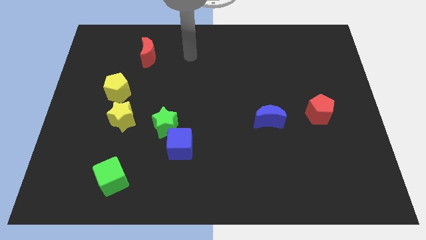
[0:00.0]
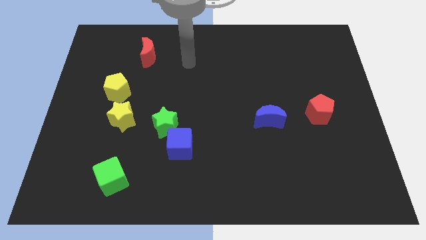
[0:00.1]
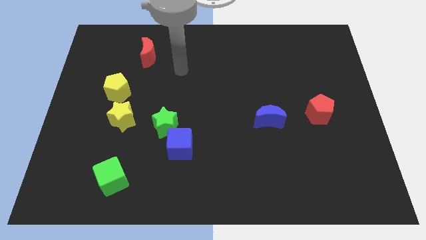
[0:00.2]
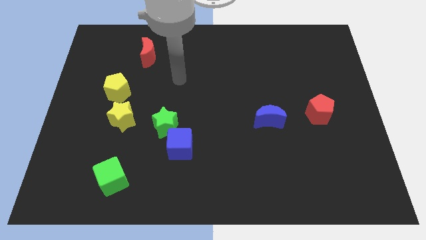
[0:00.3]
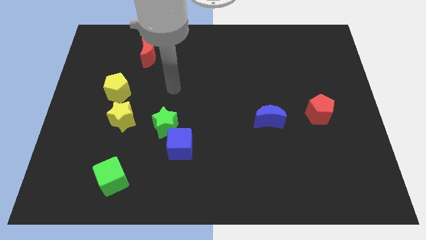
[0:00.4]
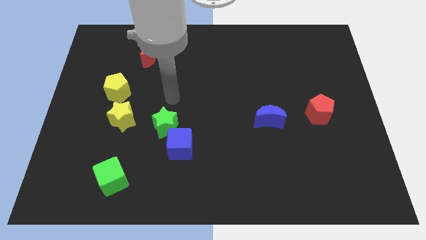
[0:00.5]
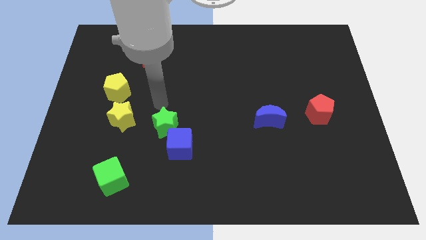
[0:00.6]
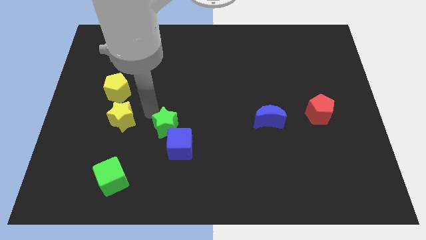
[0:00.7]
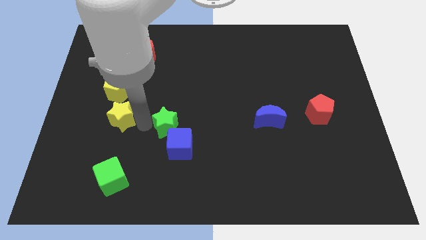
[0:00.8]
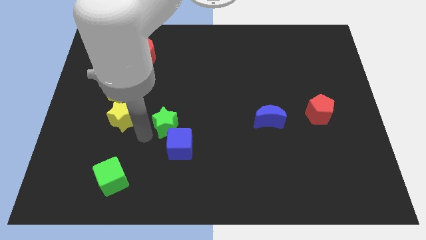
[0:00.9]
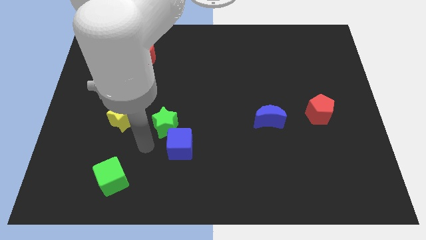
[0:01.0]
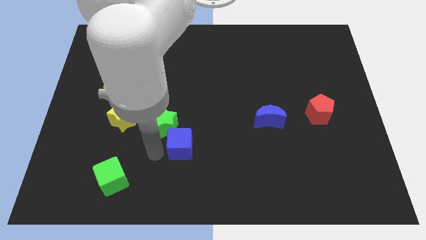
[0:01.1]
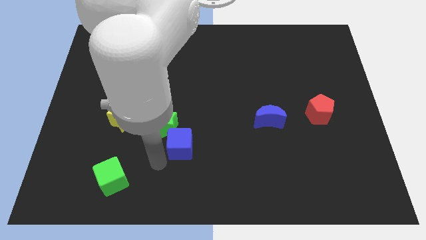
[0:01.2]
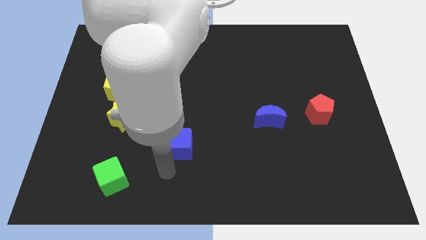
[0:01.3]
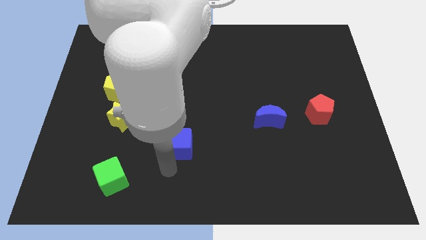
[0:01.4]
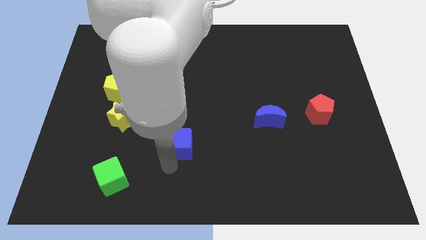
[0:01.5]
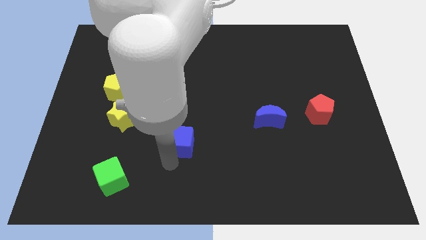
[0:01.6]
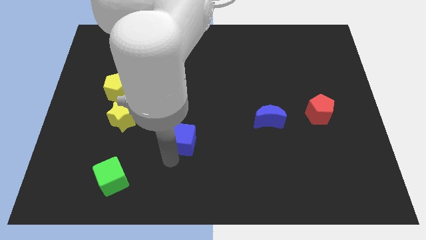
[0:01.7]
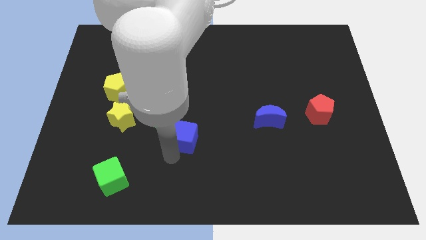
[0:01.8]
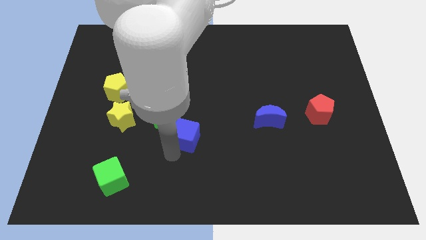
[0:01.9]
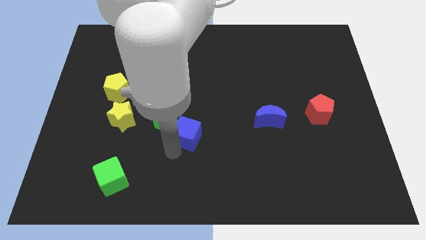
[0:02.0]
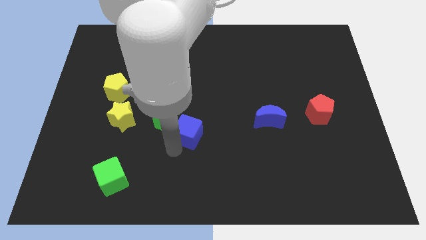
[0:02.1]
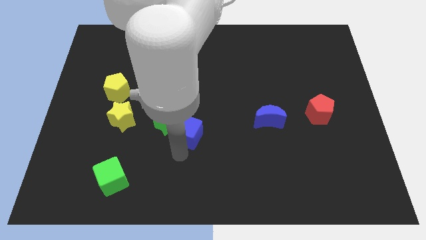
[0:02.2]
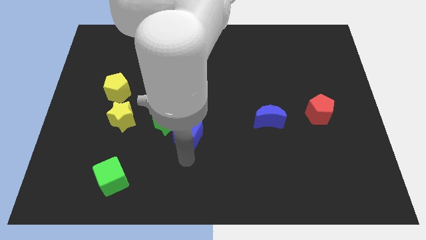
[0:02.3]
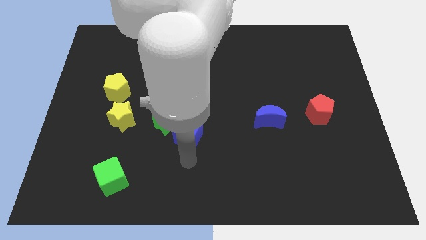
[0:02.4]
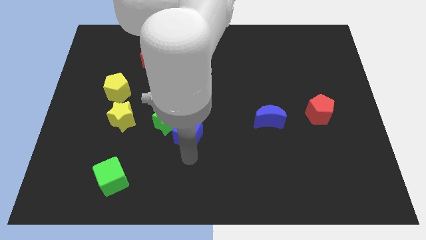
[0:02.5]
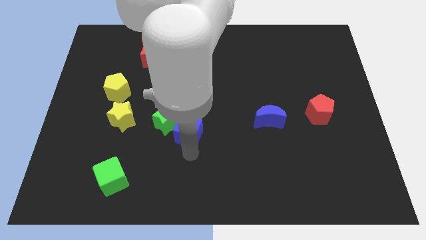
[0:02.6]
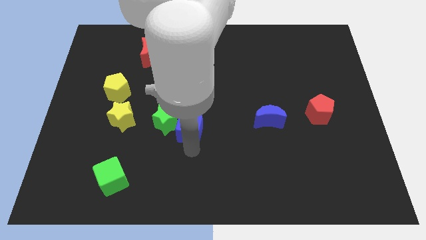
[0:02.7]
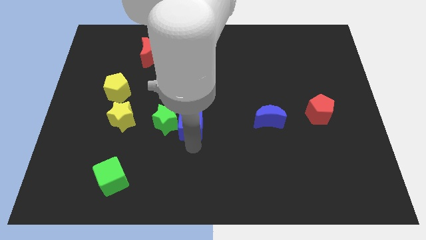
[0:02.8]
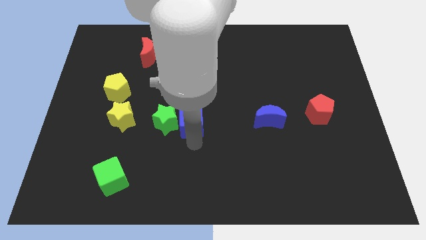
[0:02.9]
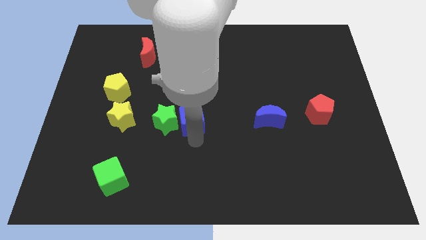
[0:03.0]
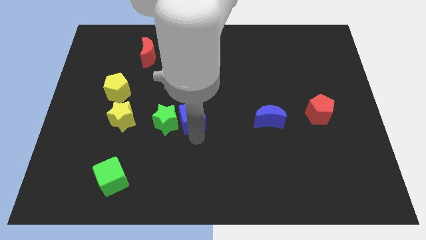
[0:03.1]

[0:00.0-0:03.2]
slightly push the blue cube up

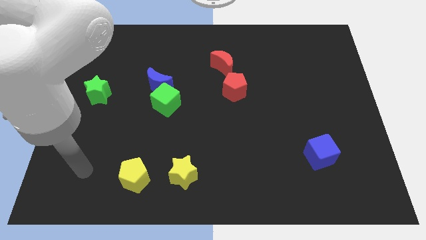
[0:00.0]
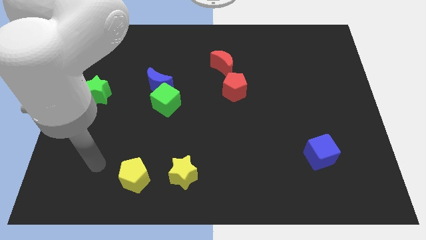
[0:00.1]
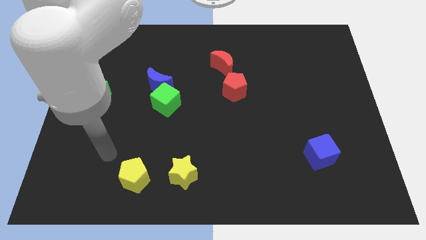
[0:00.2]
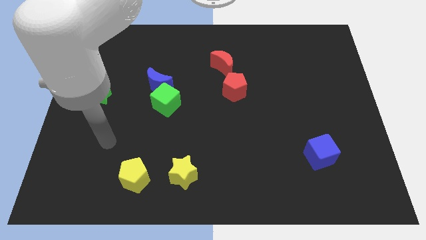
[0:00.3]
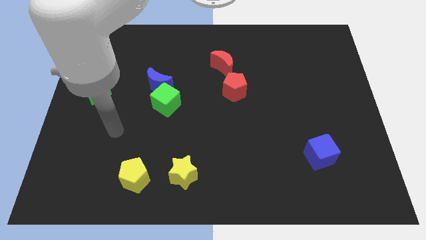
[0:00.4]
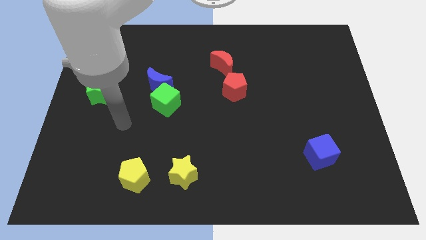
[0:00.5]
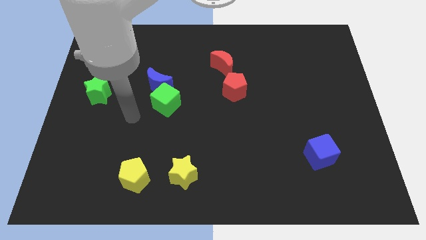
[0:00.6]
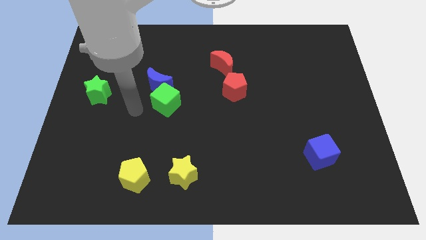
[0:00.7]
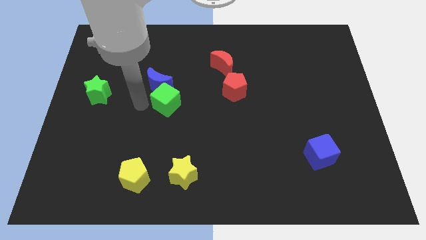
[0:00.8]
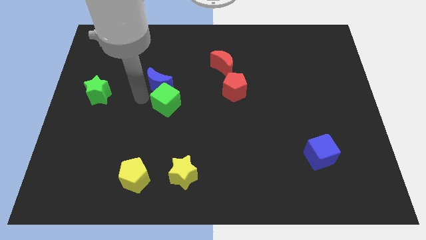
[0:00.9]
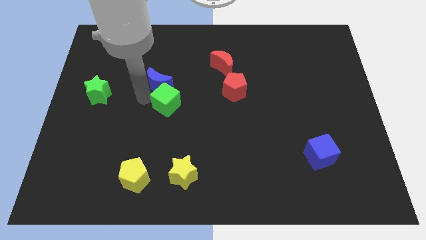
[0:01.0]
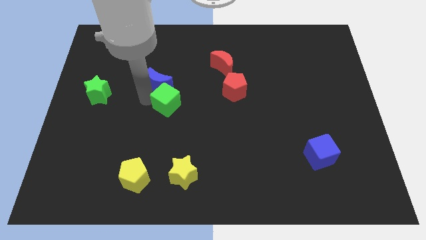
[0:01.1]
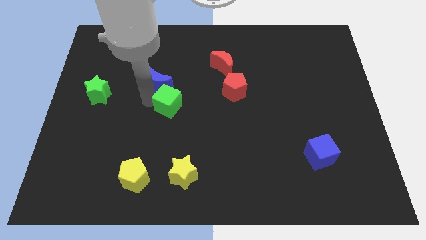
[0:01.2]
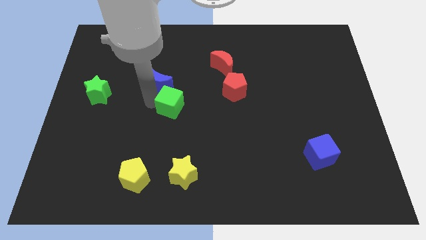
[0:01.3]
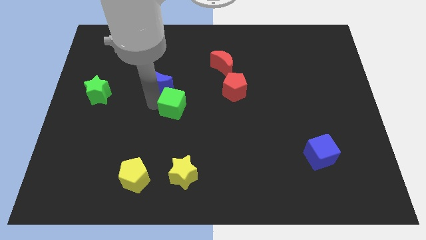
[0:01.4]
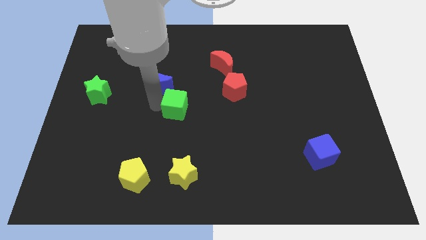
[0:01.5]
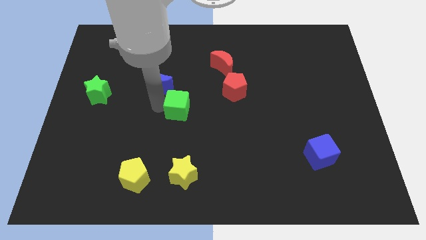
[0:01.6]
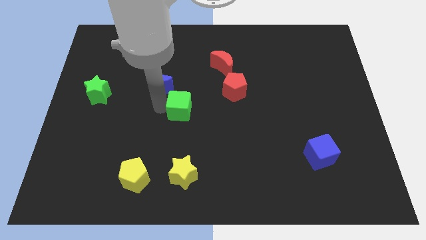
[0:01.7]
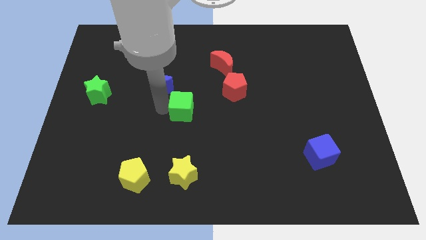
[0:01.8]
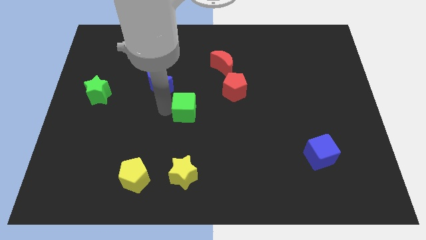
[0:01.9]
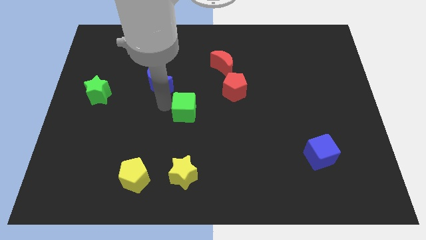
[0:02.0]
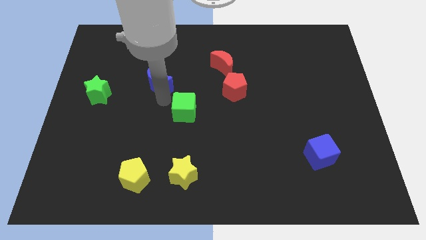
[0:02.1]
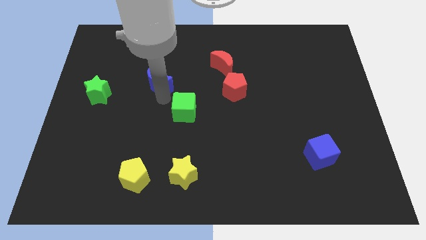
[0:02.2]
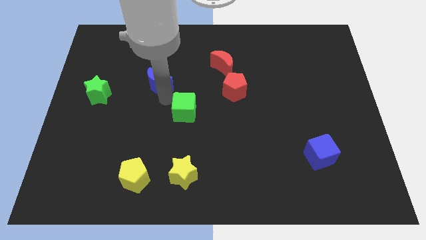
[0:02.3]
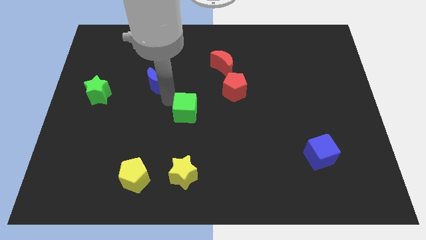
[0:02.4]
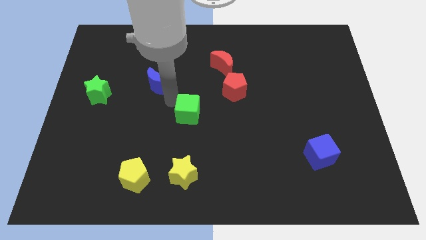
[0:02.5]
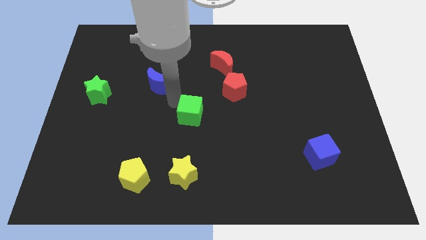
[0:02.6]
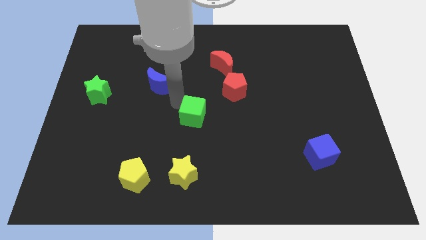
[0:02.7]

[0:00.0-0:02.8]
push the green cube somewhat down and then right

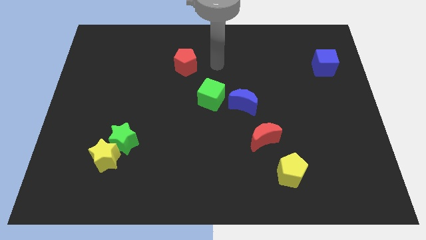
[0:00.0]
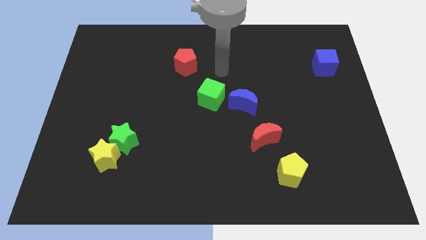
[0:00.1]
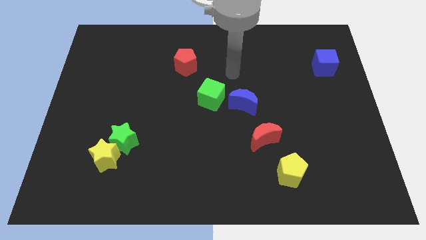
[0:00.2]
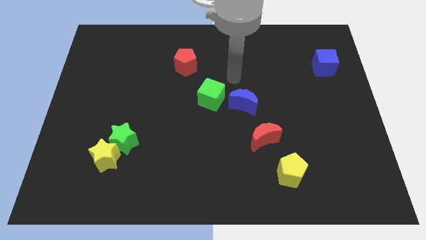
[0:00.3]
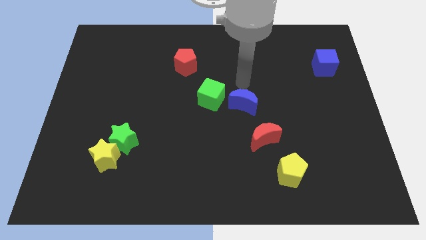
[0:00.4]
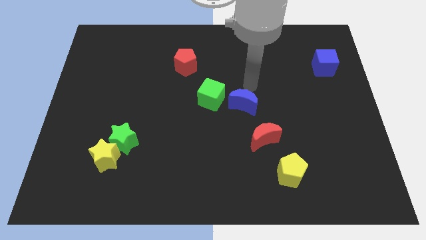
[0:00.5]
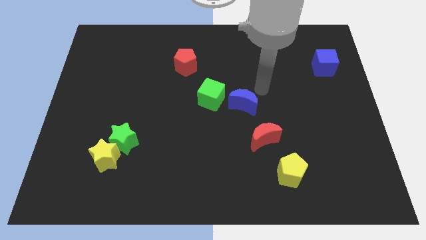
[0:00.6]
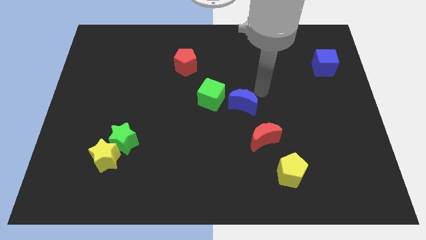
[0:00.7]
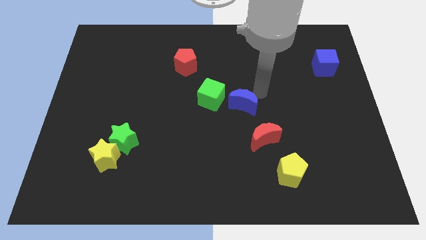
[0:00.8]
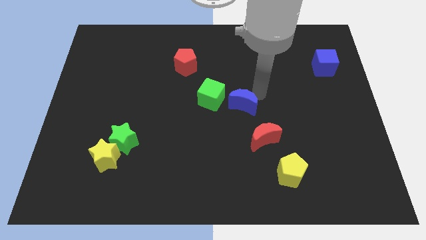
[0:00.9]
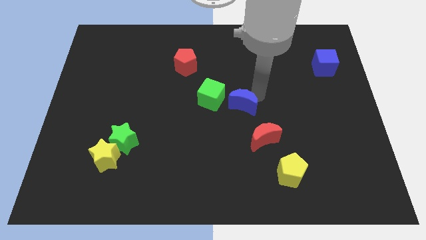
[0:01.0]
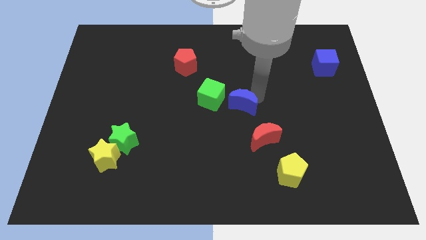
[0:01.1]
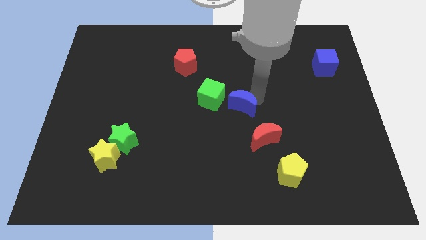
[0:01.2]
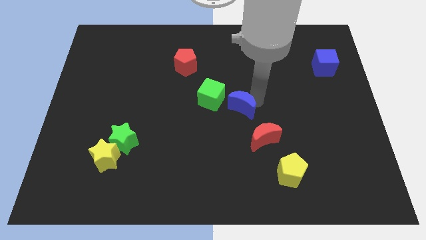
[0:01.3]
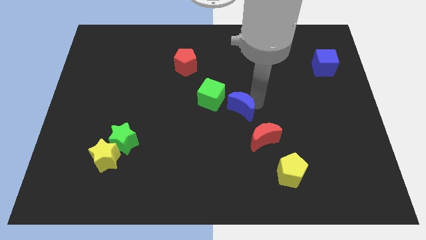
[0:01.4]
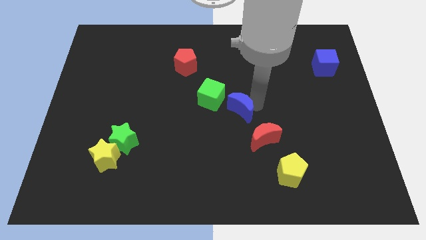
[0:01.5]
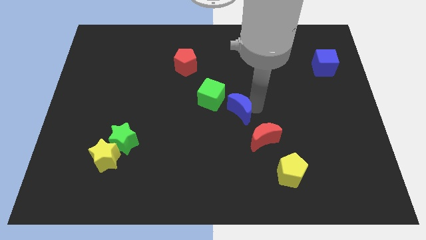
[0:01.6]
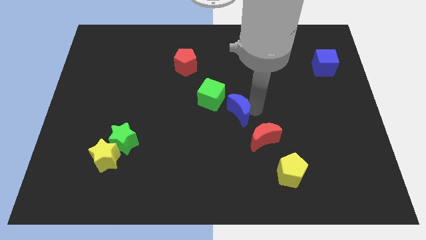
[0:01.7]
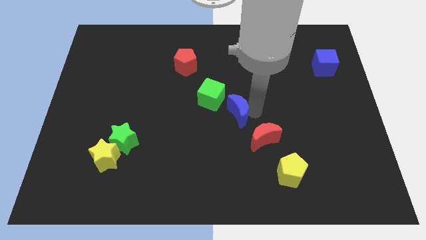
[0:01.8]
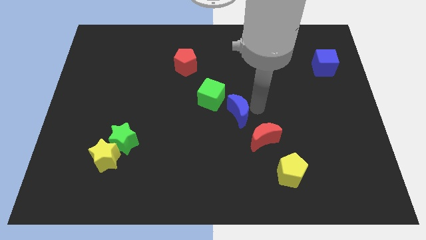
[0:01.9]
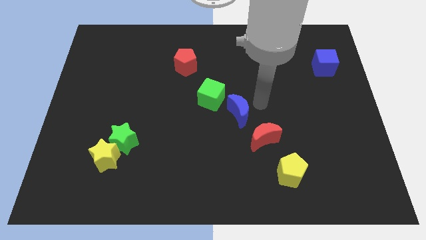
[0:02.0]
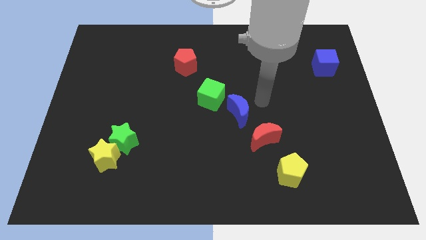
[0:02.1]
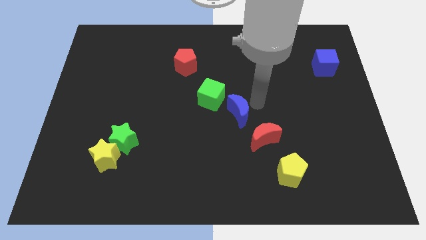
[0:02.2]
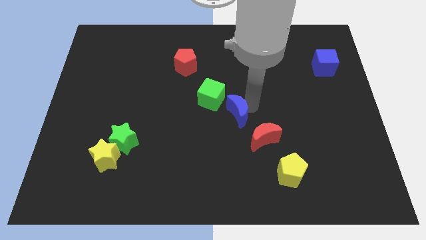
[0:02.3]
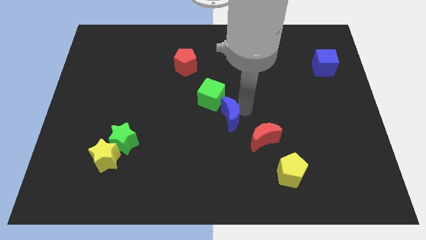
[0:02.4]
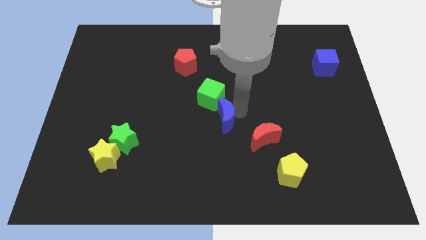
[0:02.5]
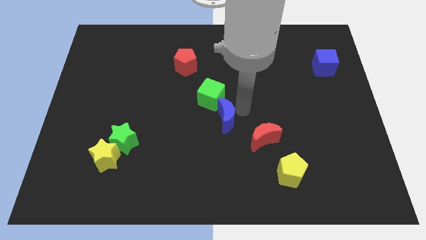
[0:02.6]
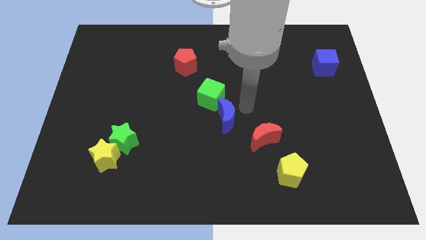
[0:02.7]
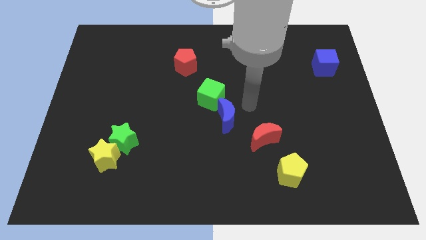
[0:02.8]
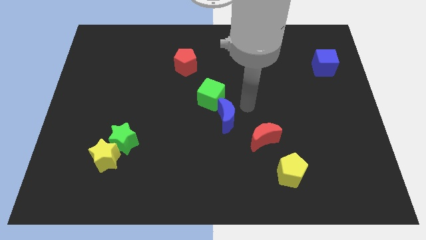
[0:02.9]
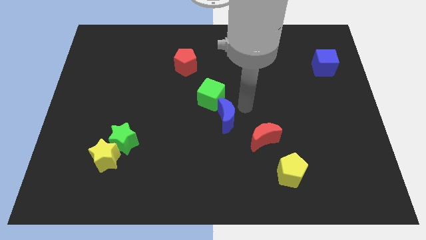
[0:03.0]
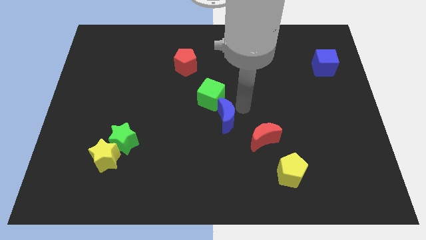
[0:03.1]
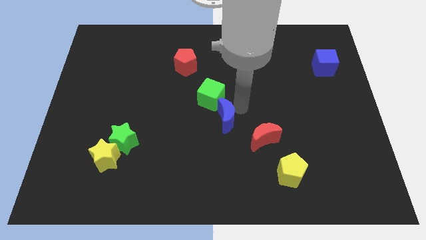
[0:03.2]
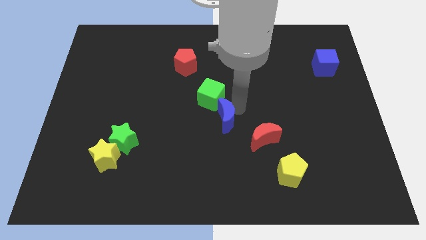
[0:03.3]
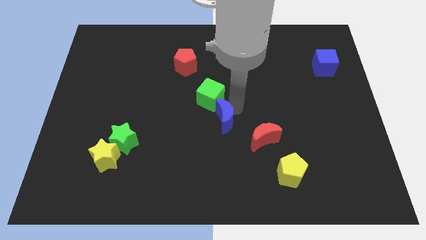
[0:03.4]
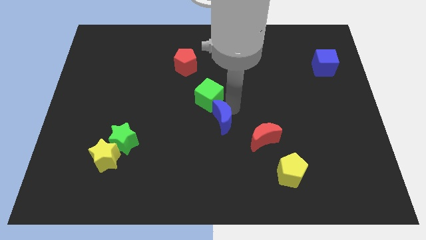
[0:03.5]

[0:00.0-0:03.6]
slightly push the blue moon down and to the left
